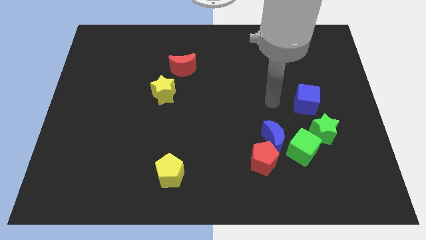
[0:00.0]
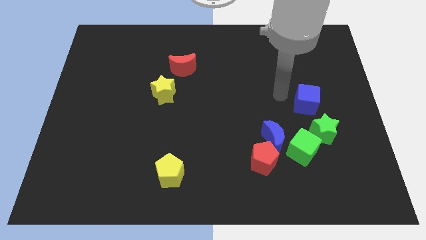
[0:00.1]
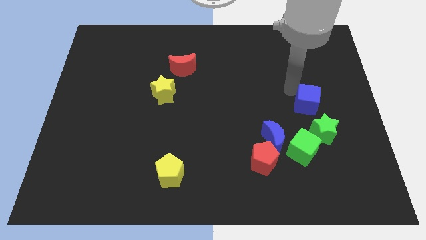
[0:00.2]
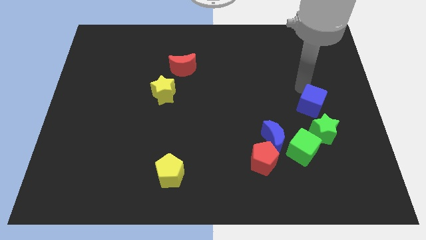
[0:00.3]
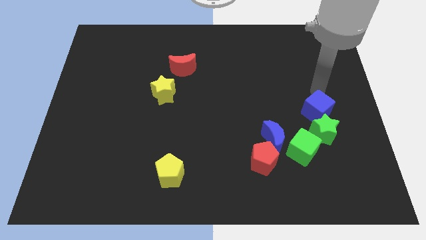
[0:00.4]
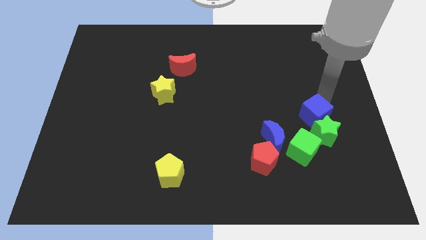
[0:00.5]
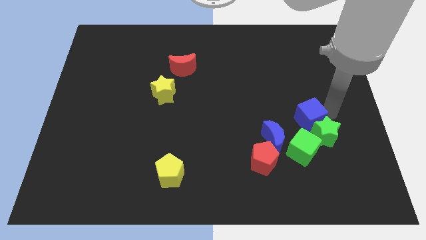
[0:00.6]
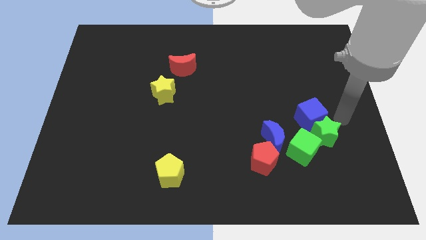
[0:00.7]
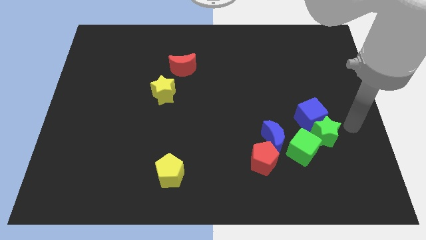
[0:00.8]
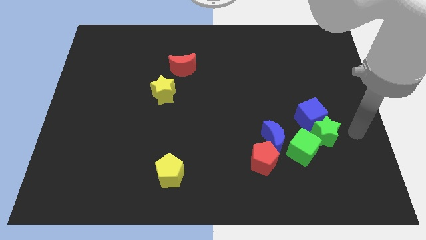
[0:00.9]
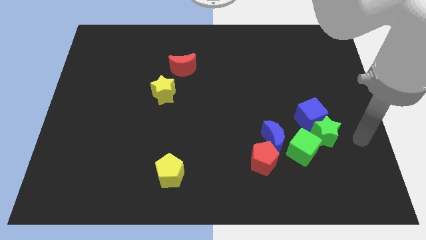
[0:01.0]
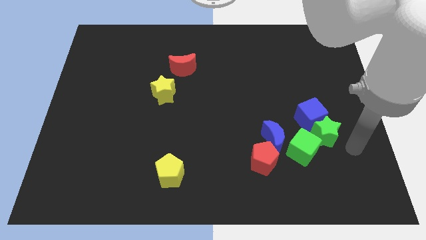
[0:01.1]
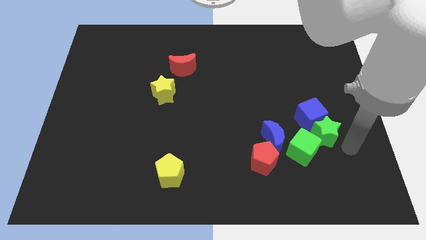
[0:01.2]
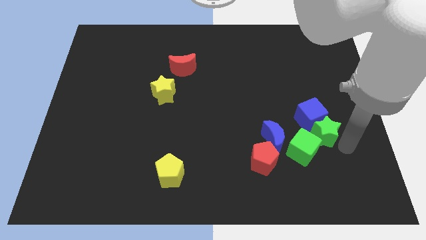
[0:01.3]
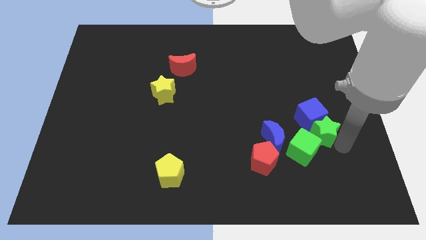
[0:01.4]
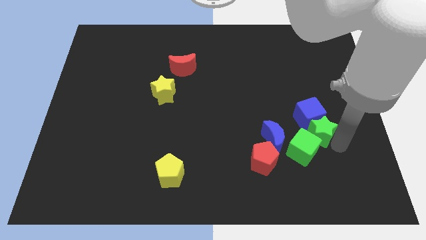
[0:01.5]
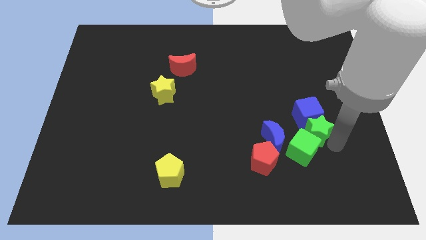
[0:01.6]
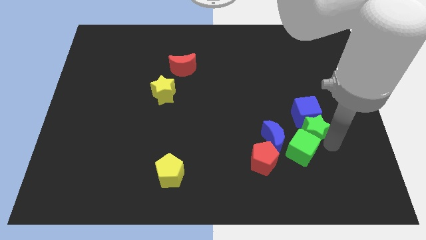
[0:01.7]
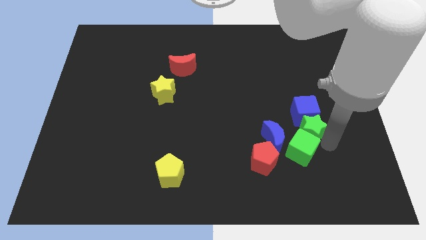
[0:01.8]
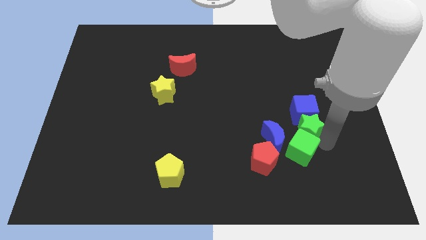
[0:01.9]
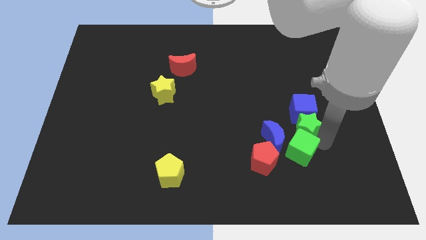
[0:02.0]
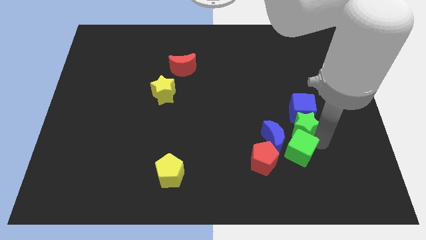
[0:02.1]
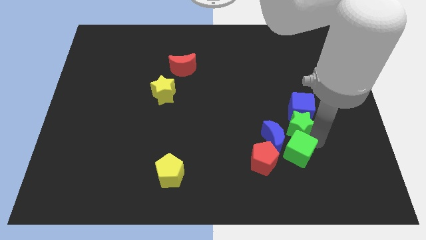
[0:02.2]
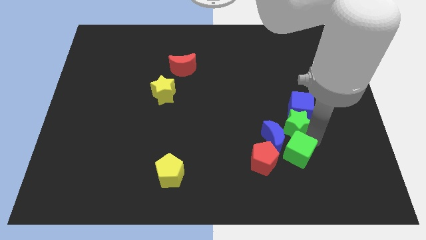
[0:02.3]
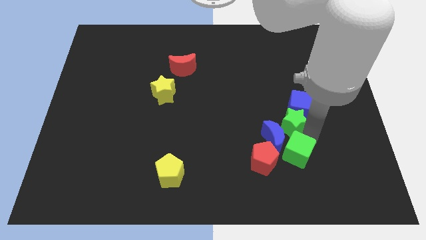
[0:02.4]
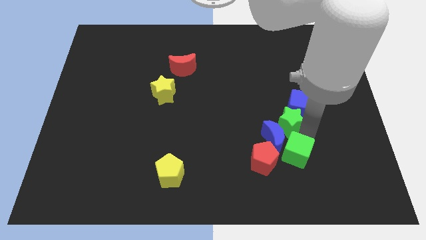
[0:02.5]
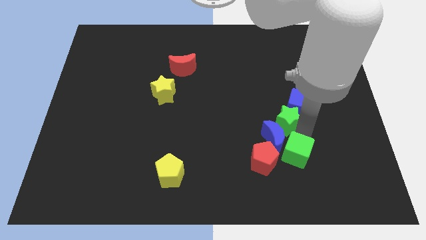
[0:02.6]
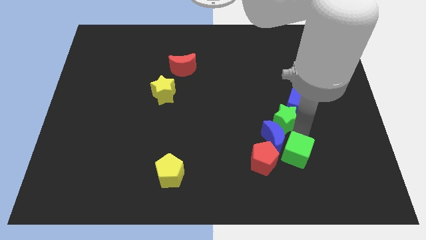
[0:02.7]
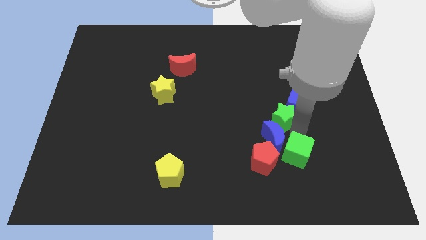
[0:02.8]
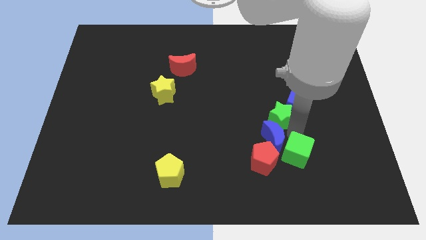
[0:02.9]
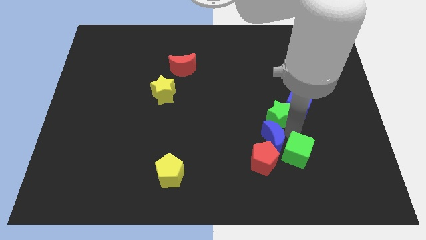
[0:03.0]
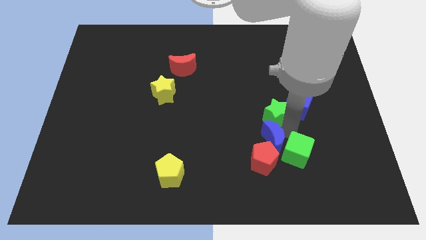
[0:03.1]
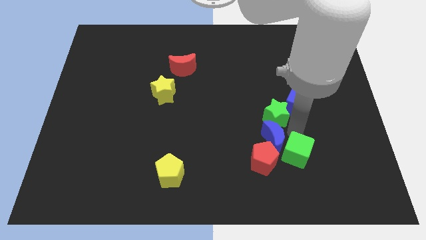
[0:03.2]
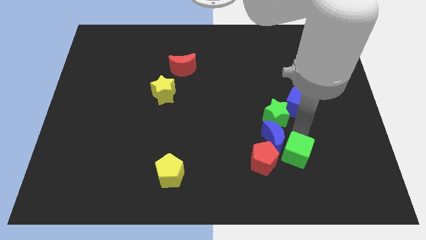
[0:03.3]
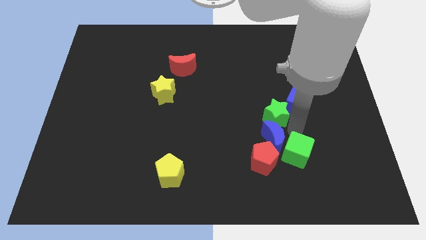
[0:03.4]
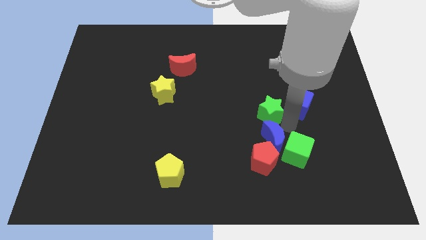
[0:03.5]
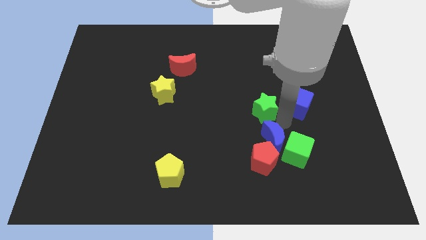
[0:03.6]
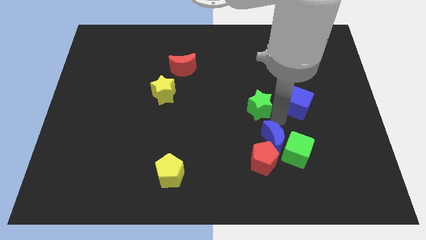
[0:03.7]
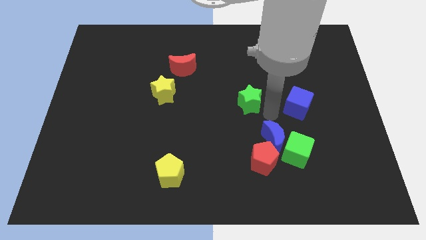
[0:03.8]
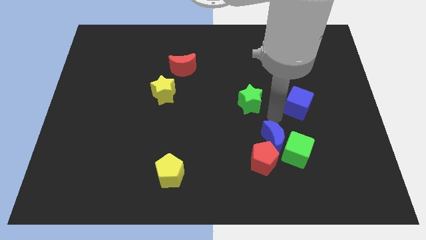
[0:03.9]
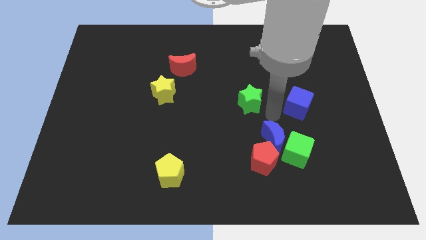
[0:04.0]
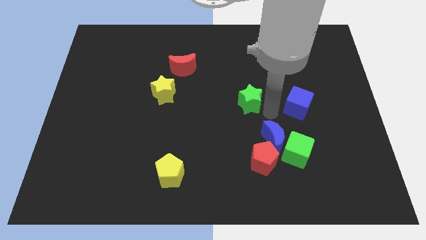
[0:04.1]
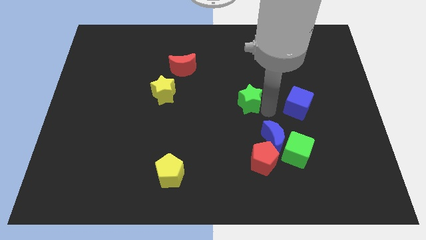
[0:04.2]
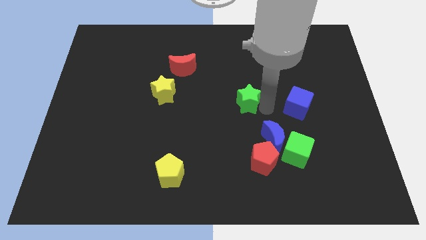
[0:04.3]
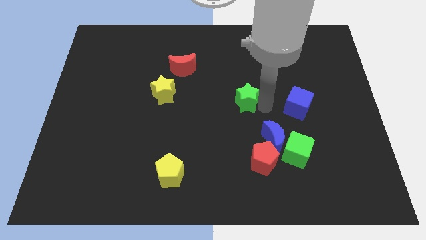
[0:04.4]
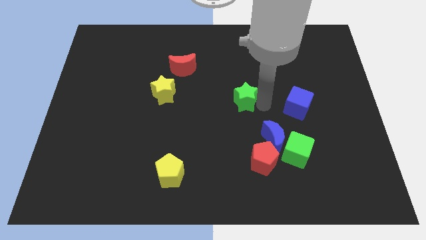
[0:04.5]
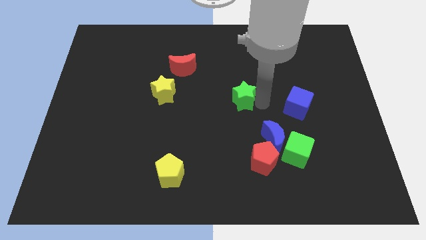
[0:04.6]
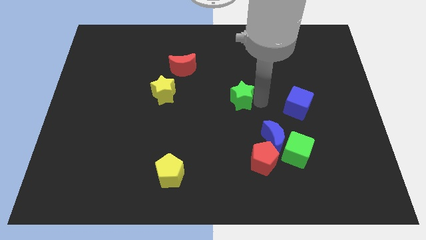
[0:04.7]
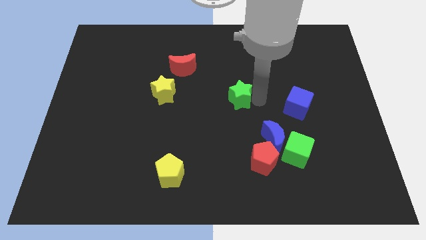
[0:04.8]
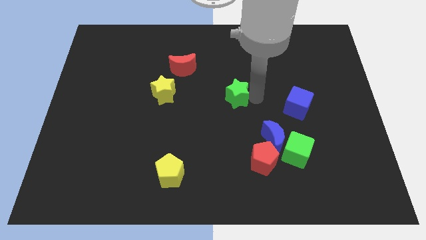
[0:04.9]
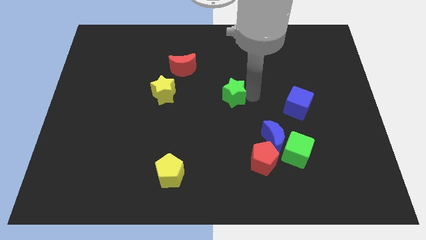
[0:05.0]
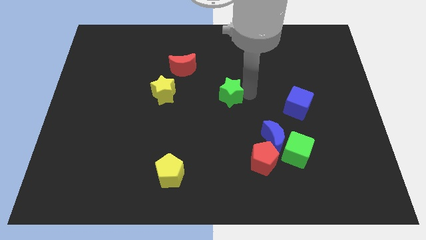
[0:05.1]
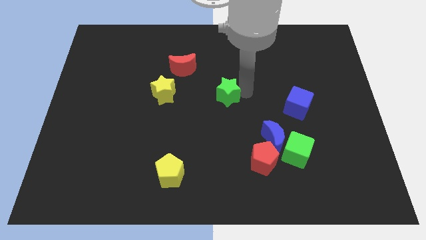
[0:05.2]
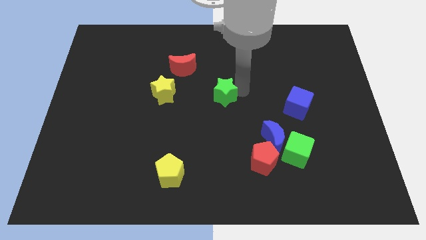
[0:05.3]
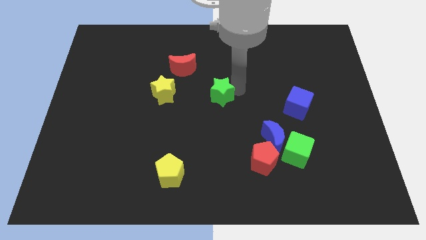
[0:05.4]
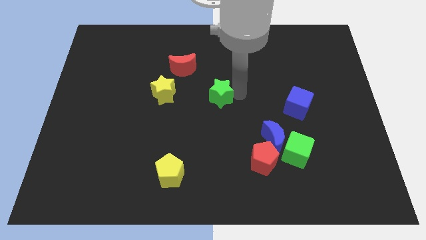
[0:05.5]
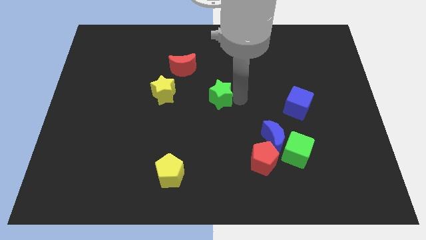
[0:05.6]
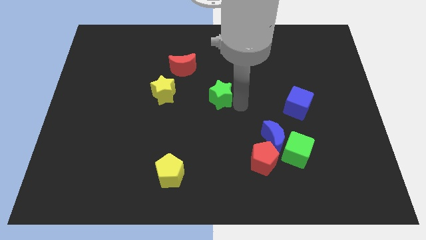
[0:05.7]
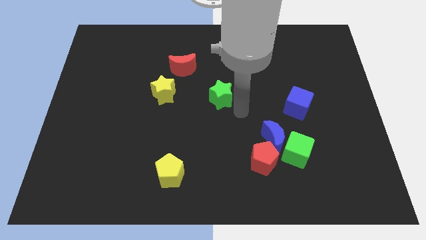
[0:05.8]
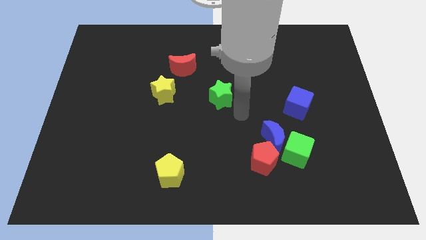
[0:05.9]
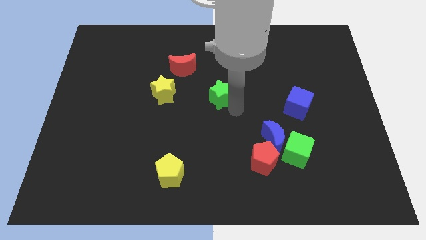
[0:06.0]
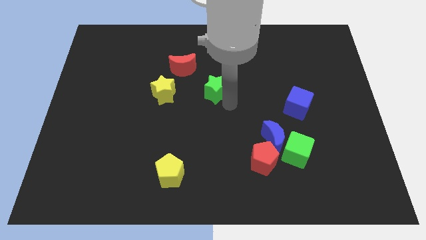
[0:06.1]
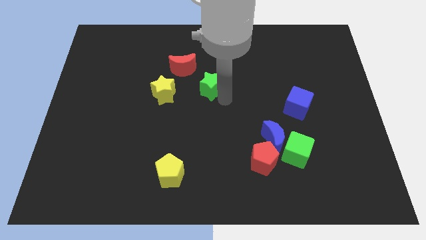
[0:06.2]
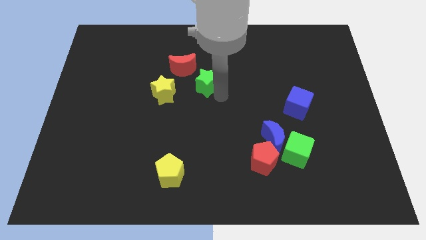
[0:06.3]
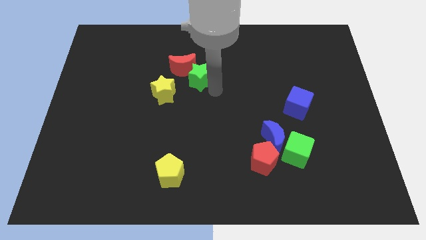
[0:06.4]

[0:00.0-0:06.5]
slide the green star close to the red moon
